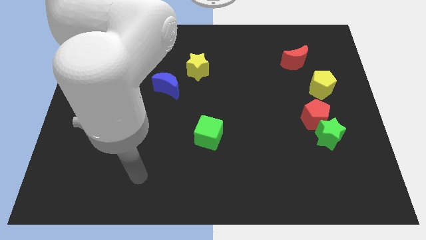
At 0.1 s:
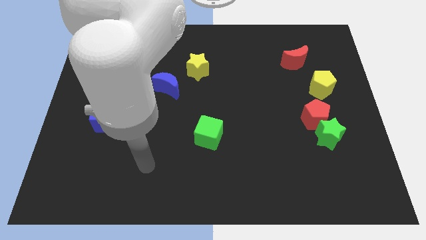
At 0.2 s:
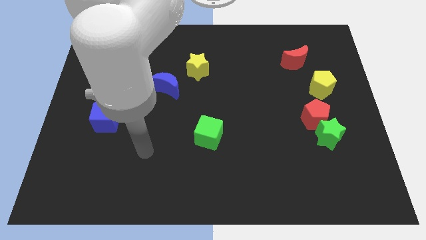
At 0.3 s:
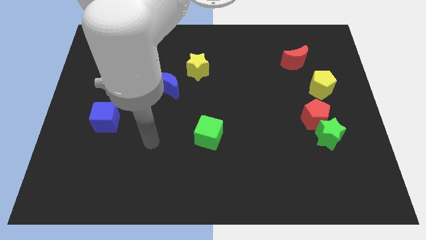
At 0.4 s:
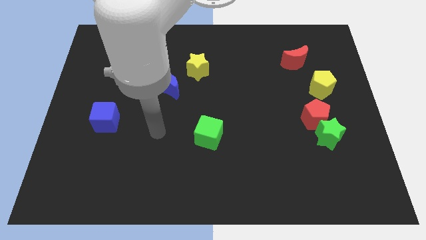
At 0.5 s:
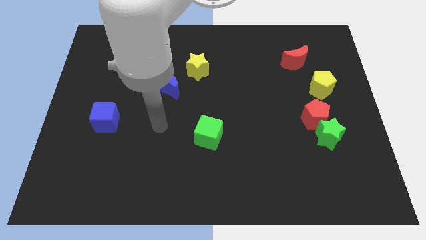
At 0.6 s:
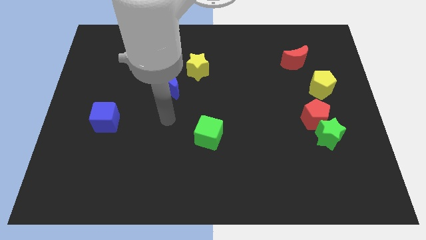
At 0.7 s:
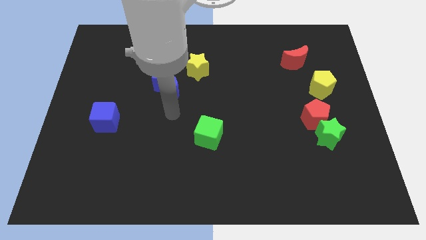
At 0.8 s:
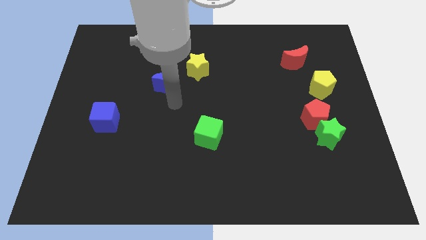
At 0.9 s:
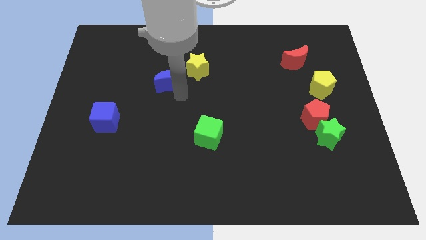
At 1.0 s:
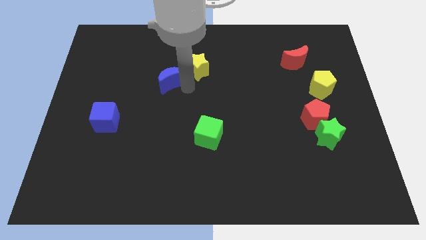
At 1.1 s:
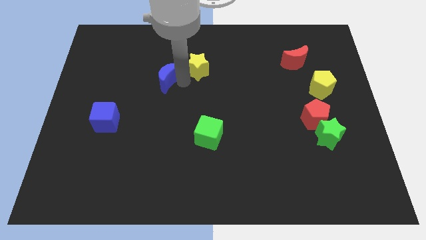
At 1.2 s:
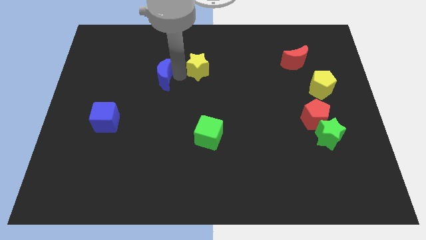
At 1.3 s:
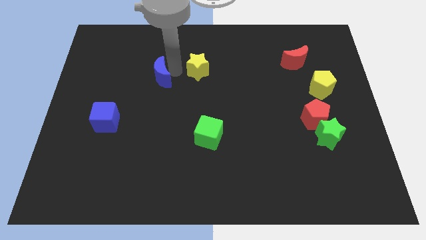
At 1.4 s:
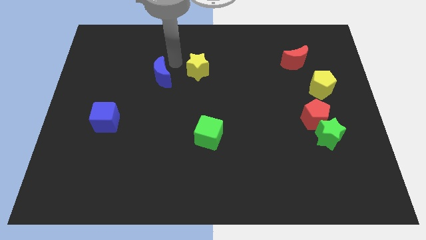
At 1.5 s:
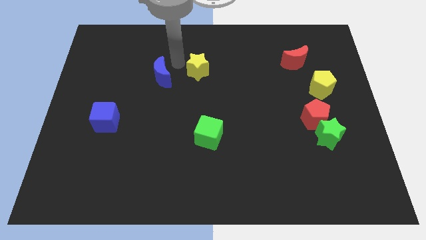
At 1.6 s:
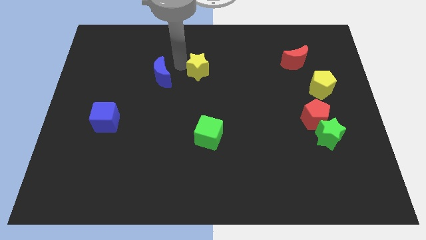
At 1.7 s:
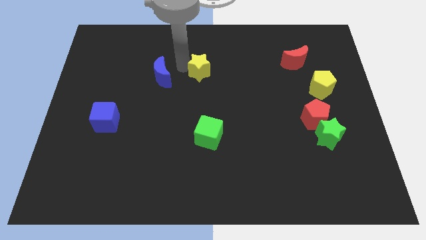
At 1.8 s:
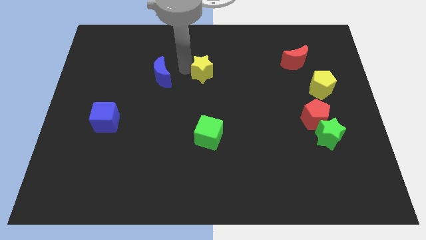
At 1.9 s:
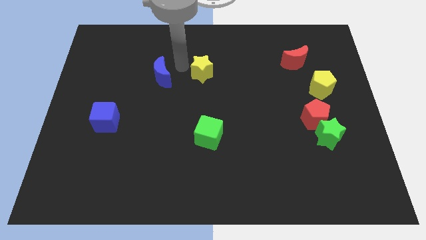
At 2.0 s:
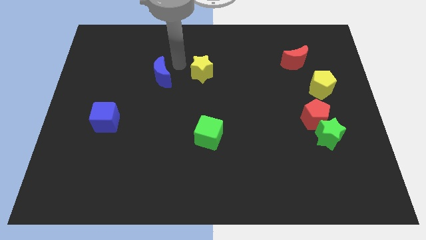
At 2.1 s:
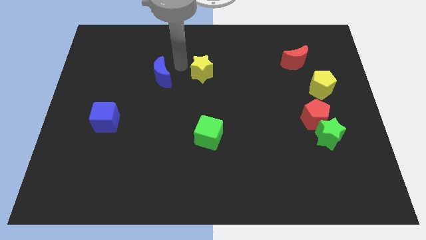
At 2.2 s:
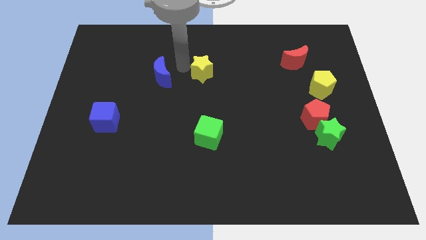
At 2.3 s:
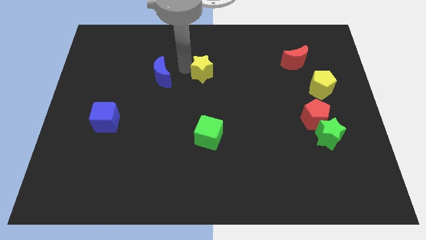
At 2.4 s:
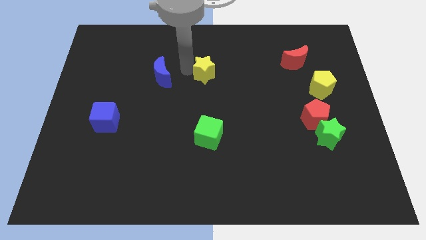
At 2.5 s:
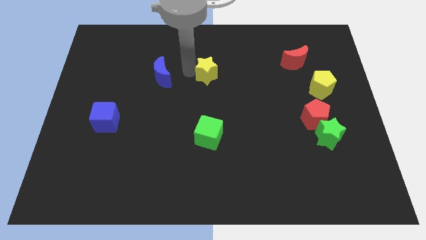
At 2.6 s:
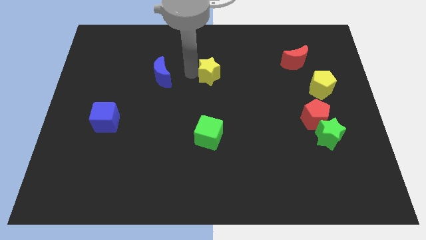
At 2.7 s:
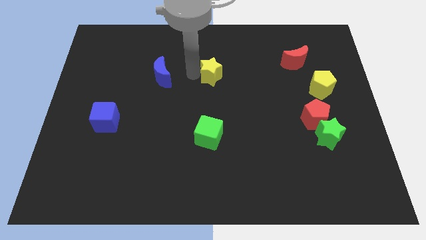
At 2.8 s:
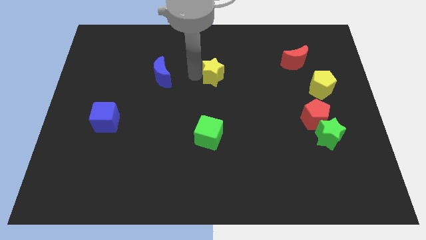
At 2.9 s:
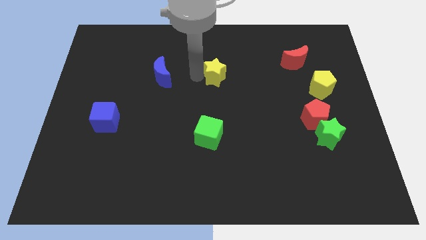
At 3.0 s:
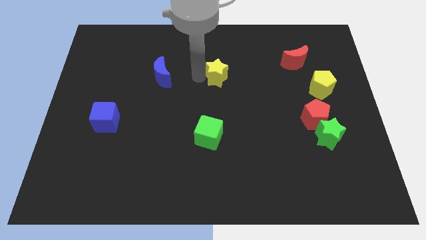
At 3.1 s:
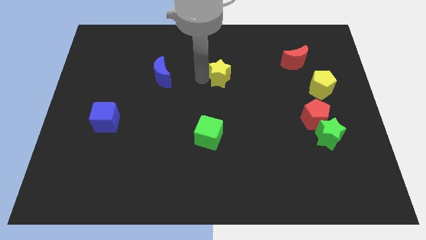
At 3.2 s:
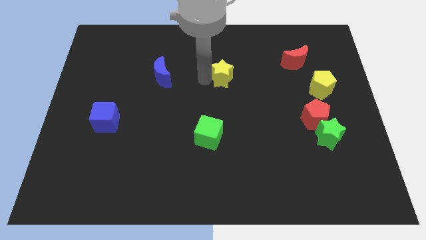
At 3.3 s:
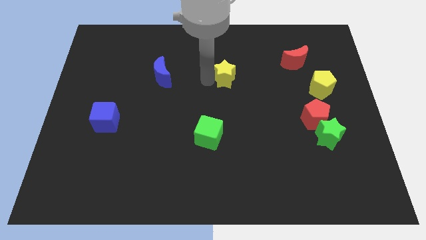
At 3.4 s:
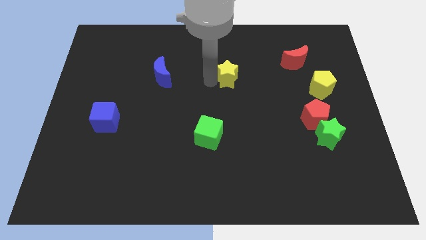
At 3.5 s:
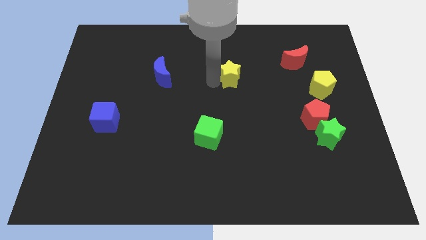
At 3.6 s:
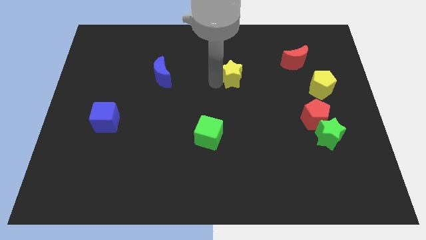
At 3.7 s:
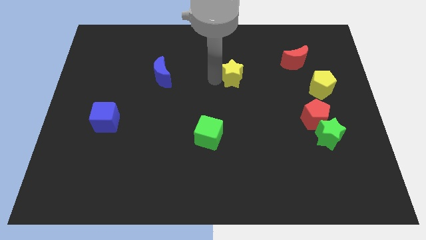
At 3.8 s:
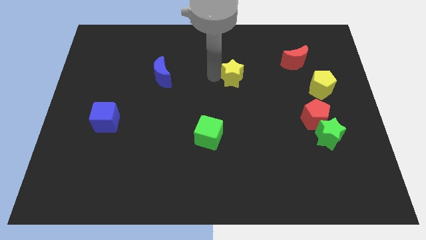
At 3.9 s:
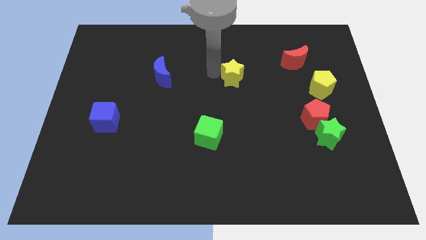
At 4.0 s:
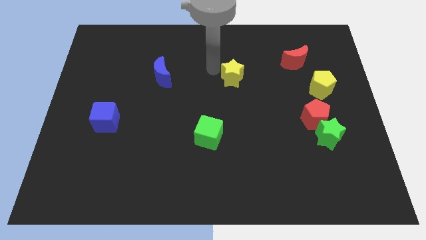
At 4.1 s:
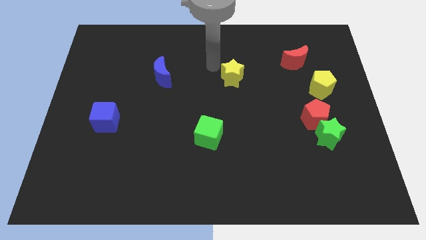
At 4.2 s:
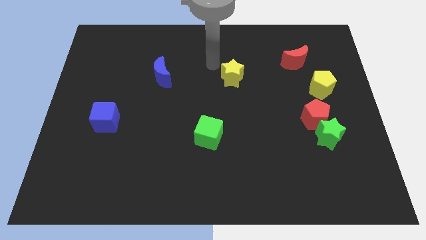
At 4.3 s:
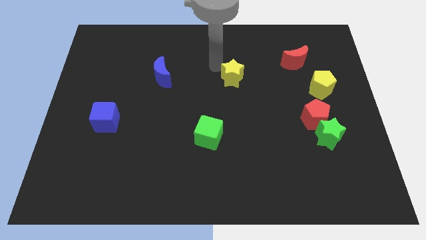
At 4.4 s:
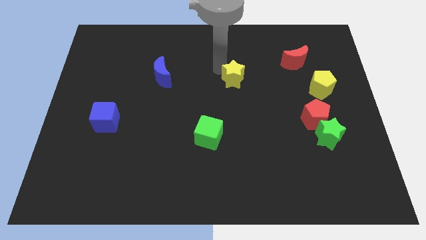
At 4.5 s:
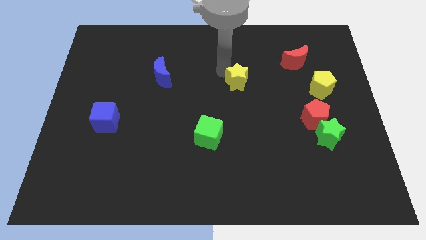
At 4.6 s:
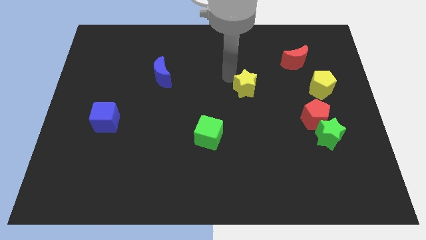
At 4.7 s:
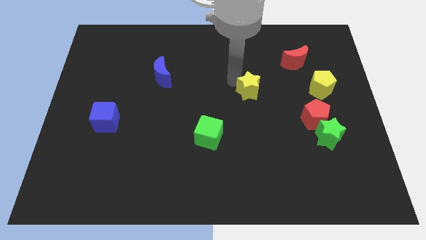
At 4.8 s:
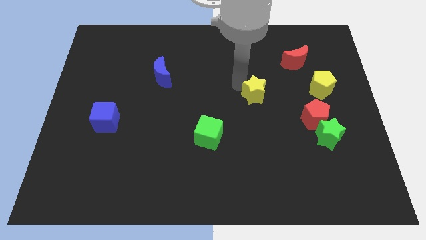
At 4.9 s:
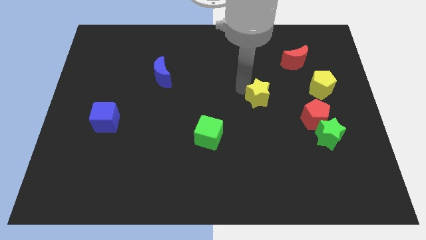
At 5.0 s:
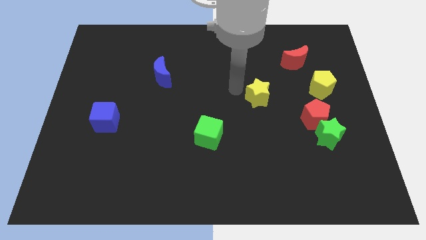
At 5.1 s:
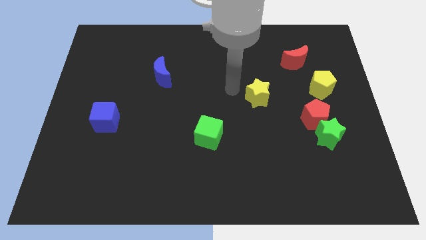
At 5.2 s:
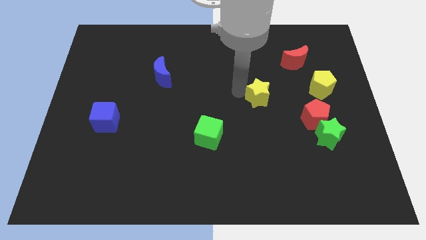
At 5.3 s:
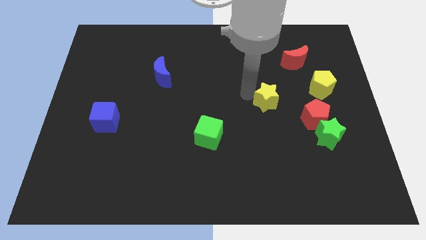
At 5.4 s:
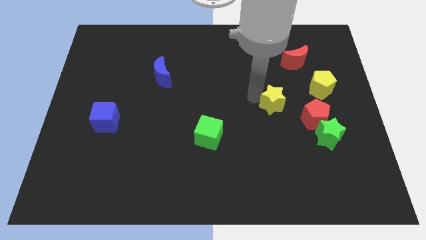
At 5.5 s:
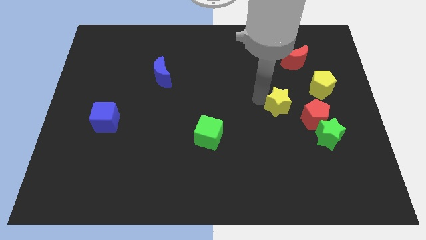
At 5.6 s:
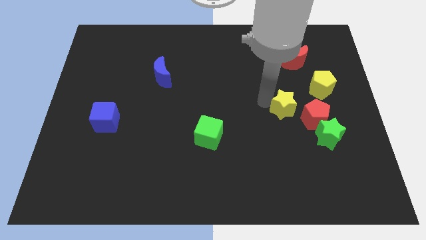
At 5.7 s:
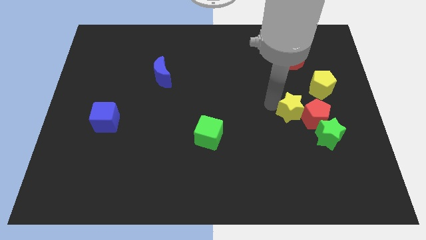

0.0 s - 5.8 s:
slide the yellow star next to the red pentagon
